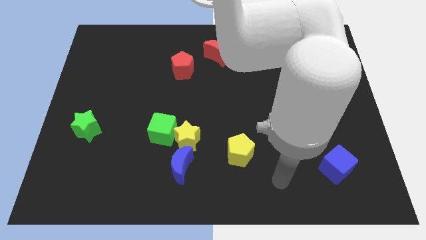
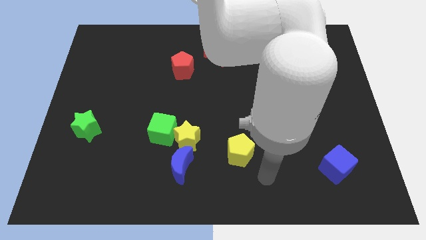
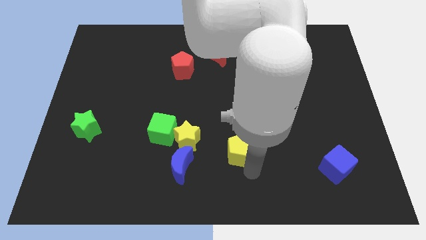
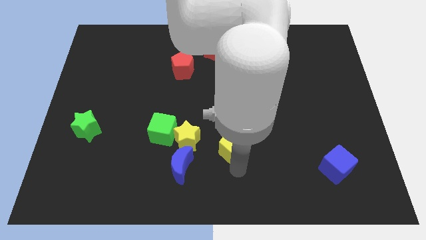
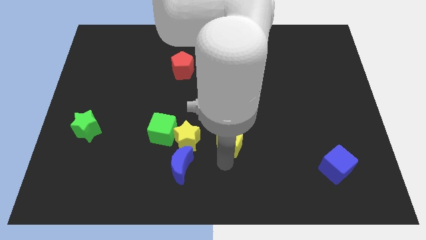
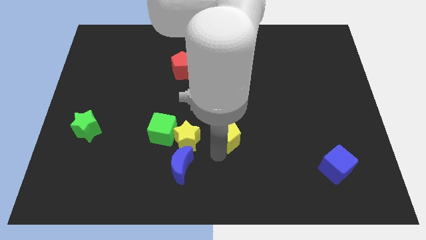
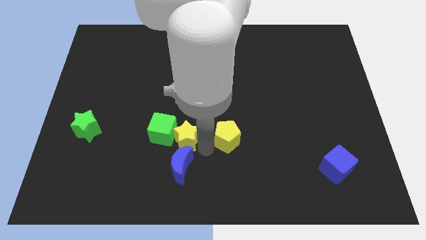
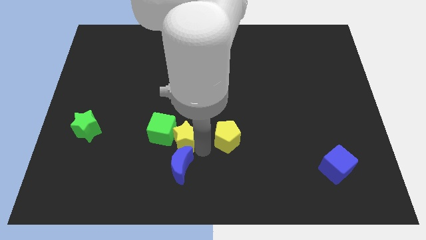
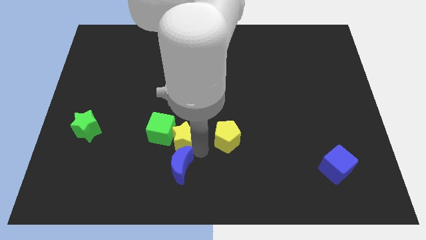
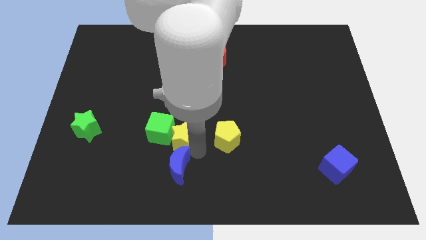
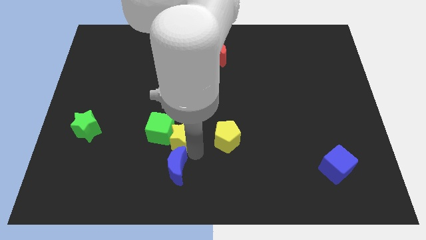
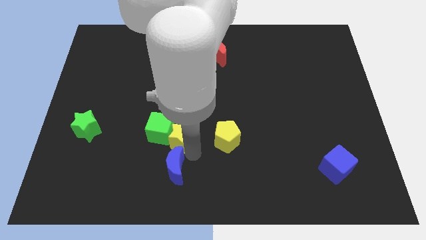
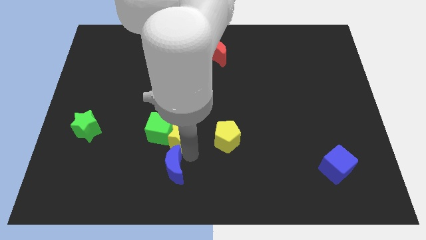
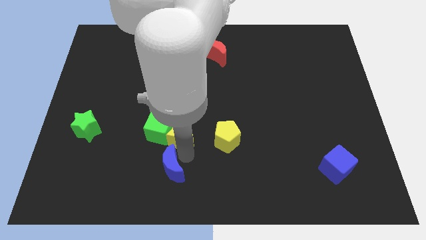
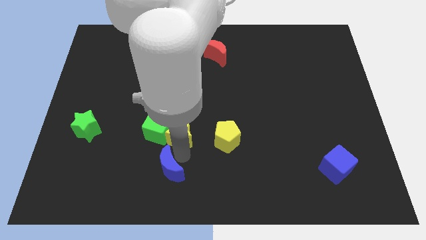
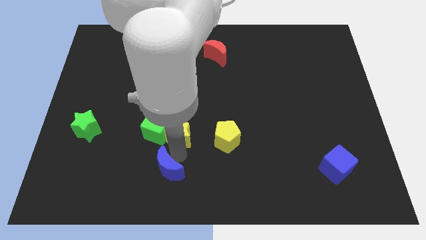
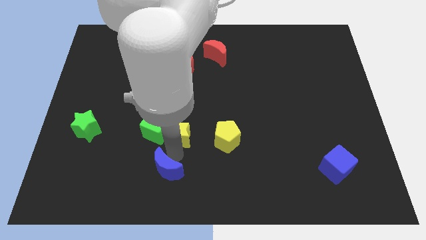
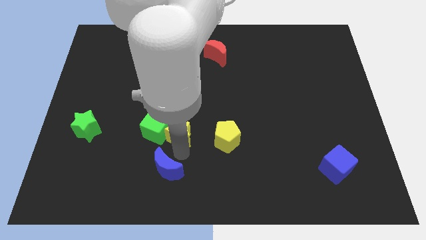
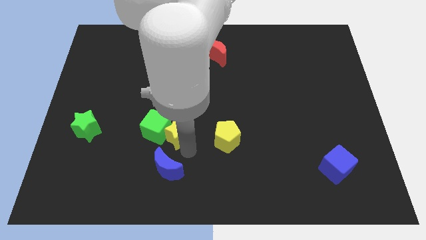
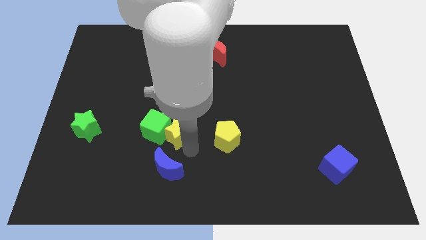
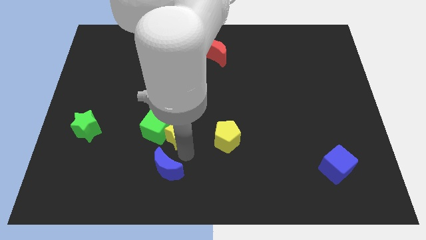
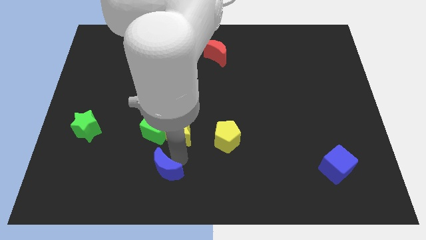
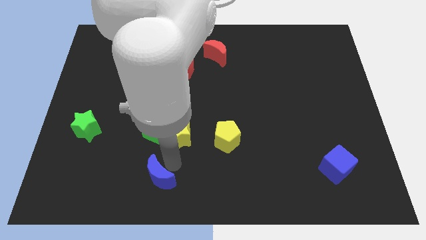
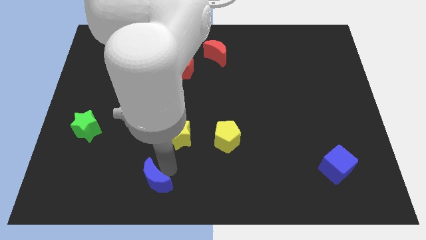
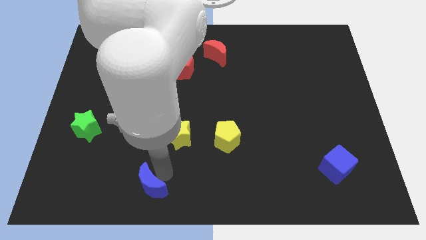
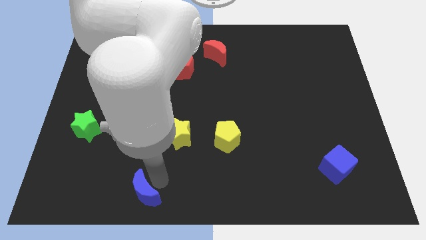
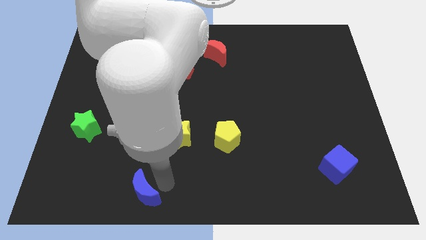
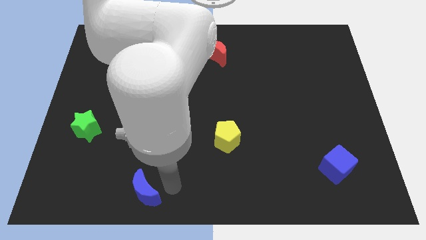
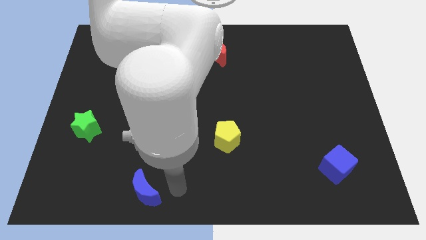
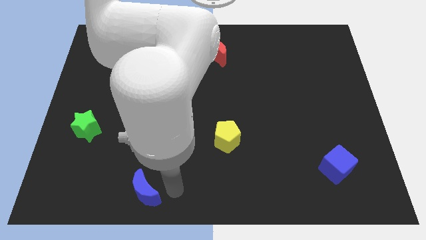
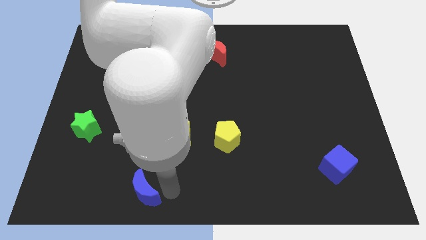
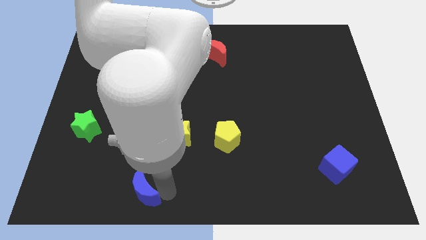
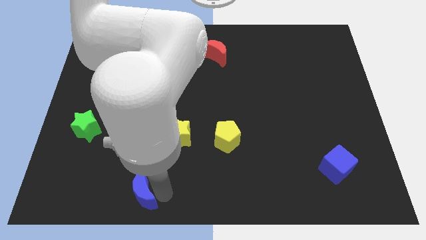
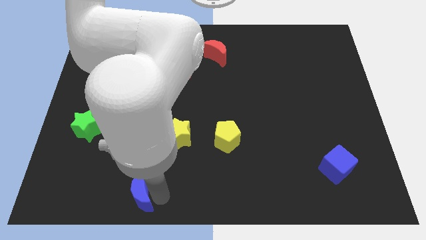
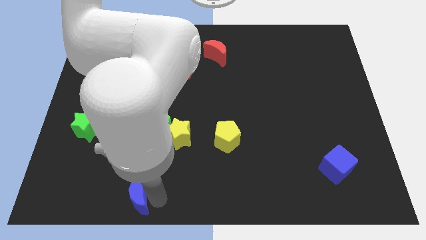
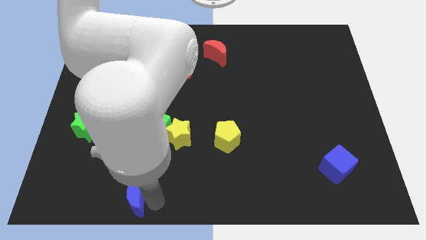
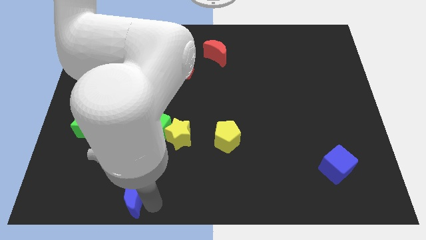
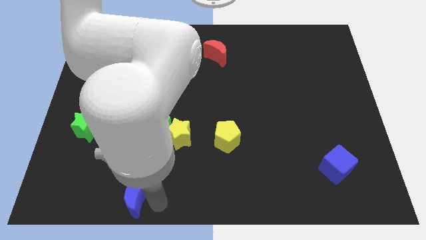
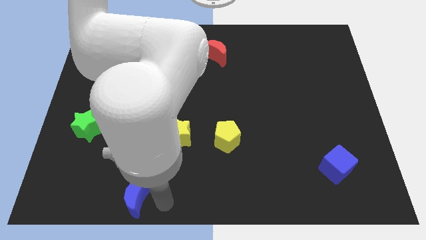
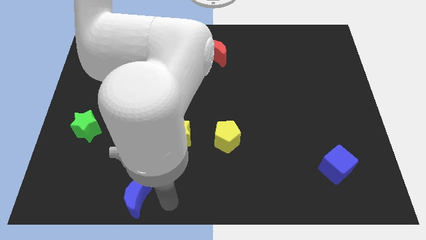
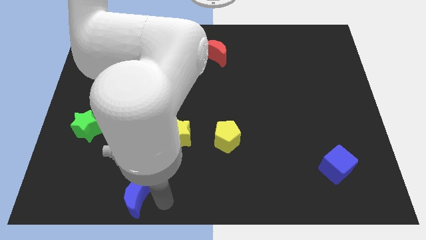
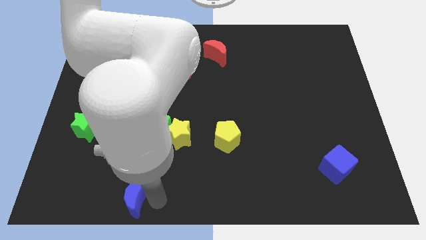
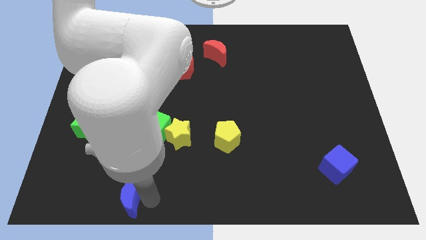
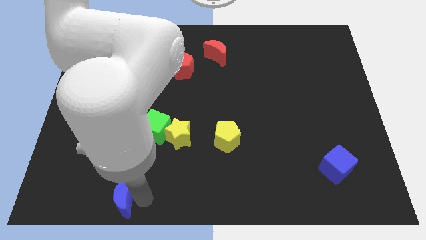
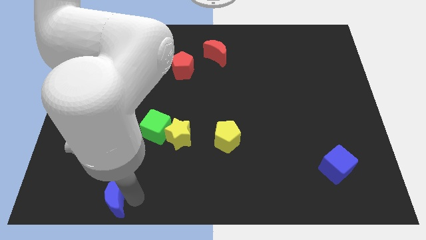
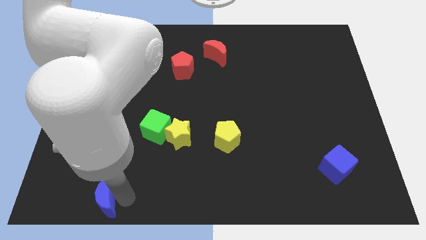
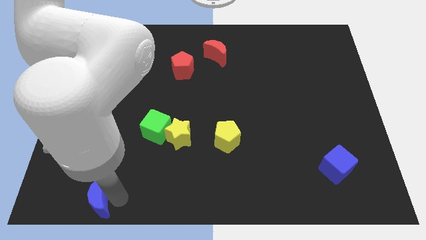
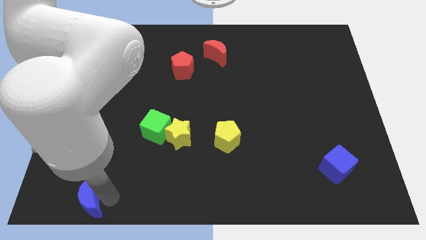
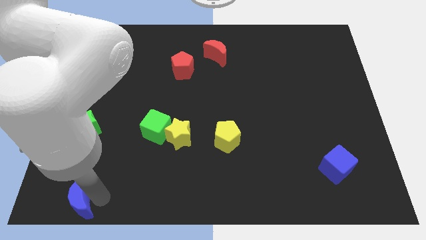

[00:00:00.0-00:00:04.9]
move the blue moon to the lower left corner

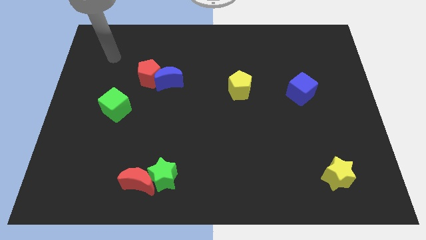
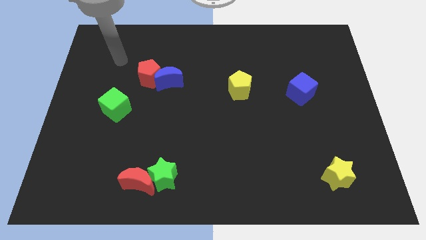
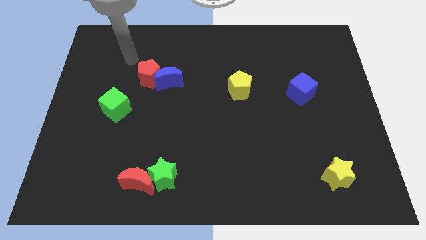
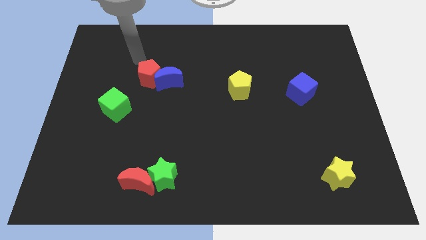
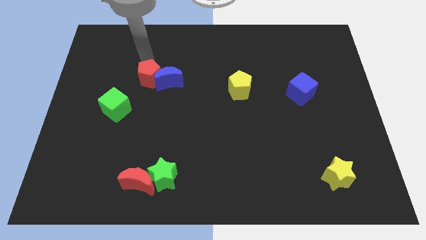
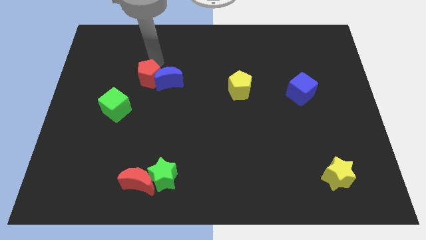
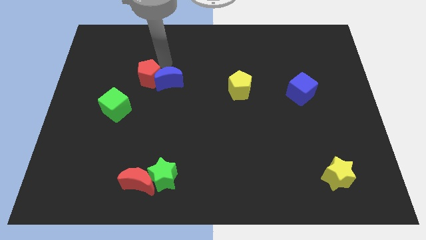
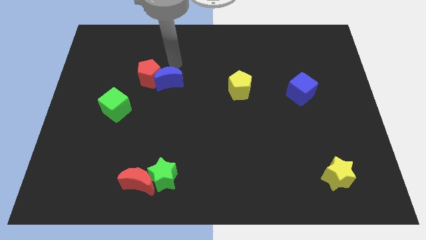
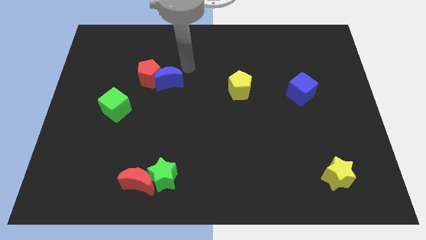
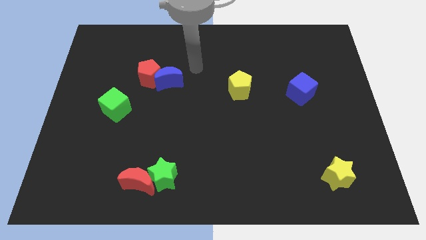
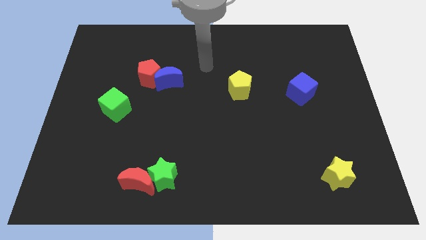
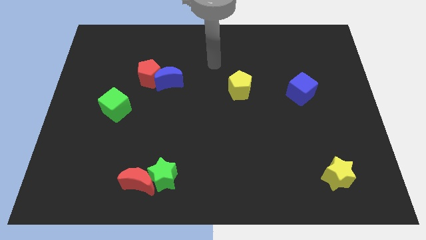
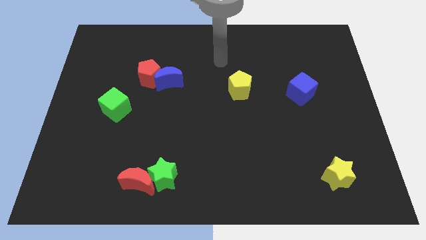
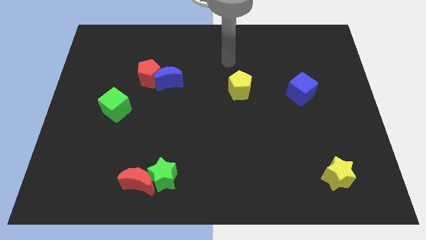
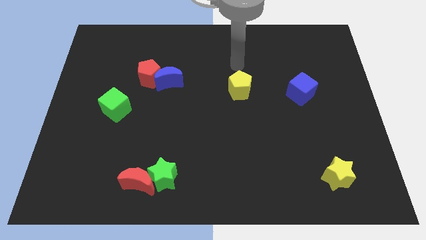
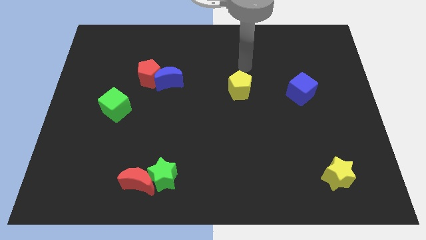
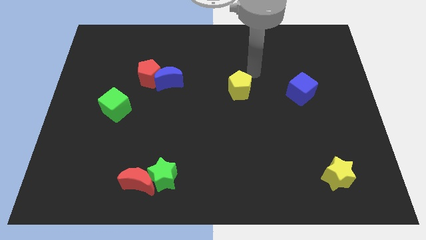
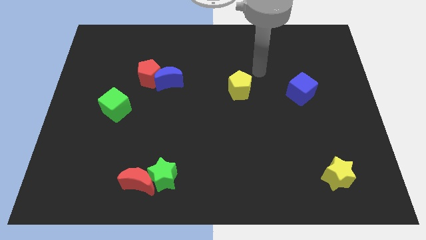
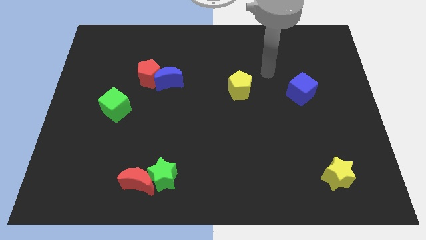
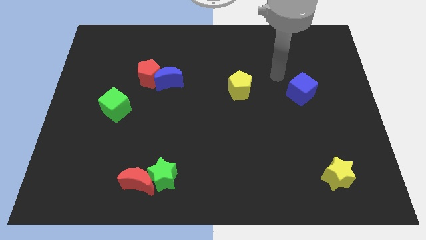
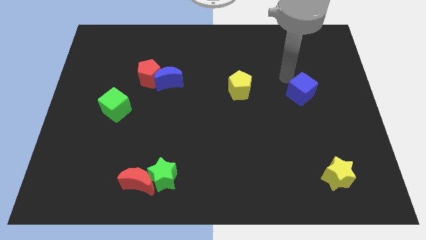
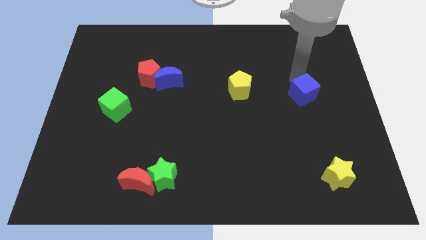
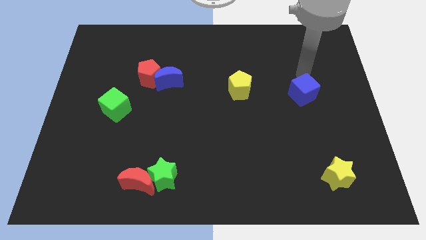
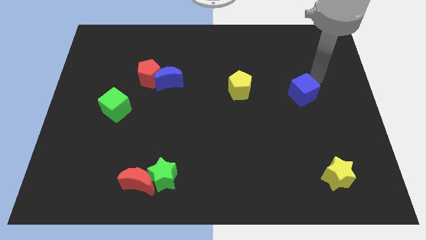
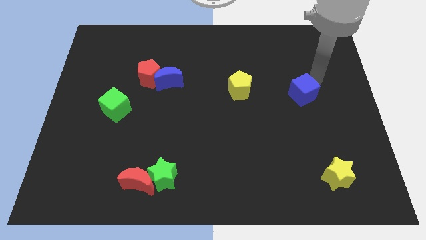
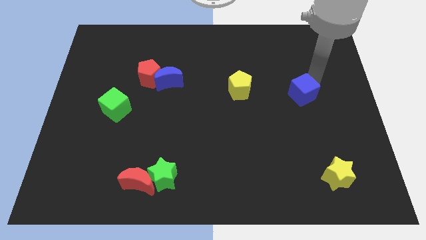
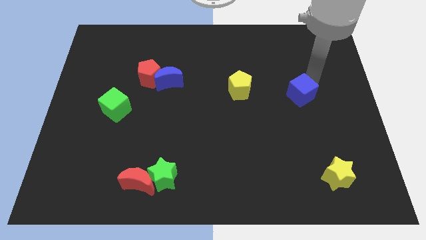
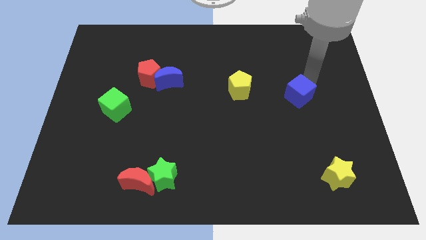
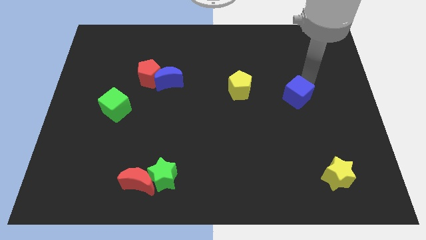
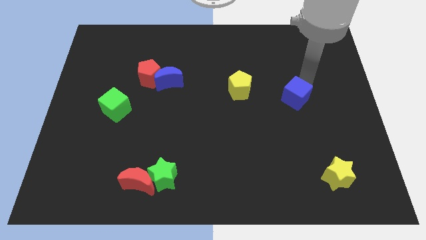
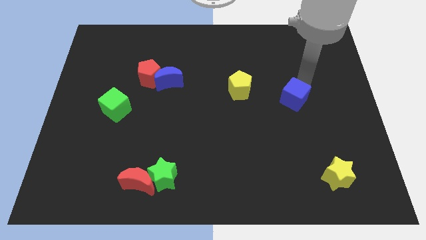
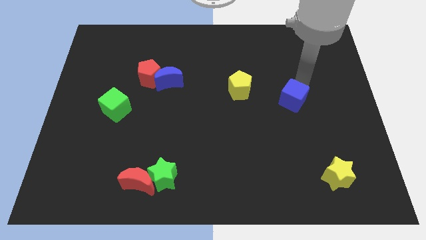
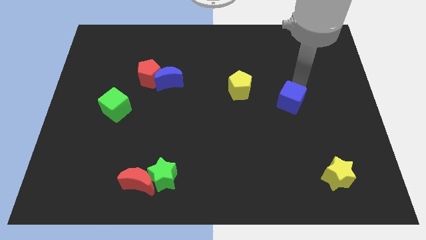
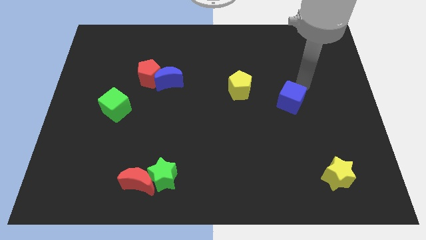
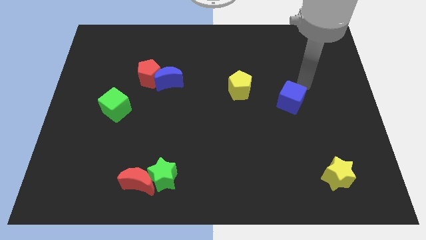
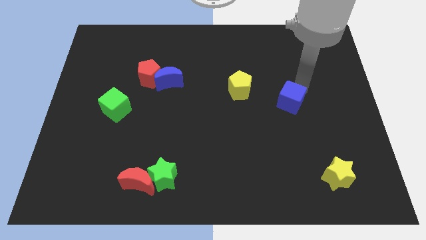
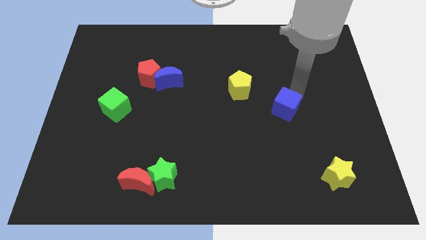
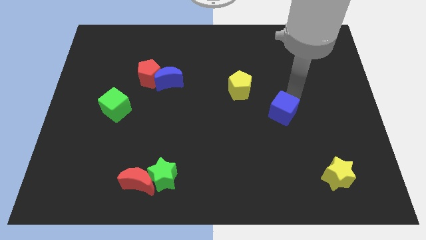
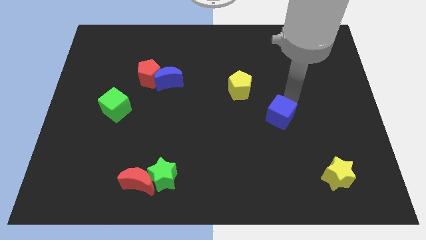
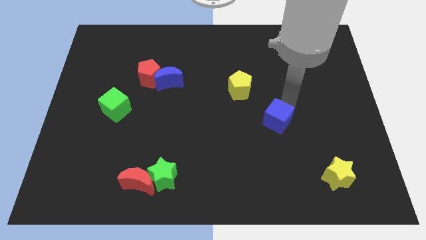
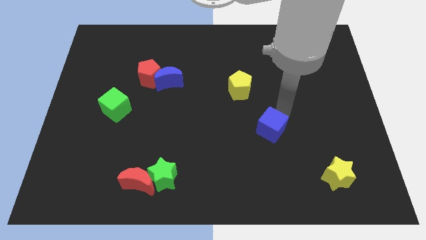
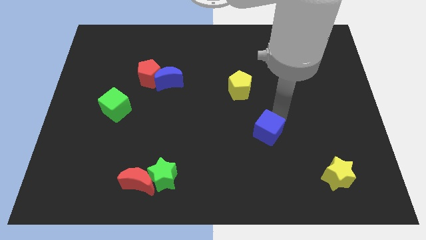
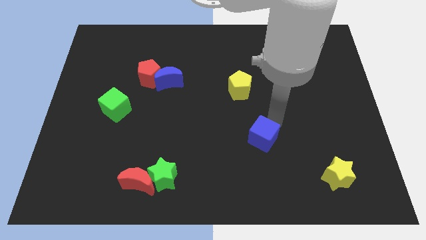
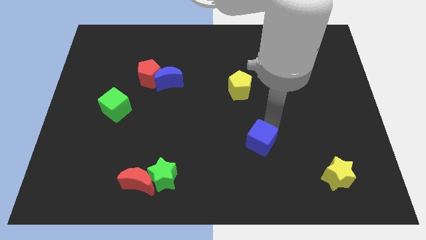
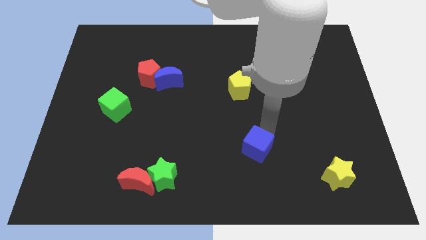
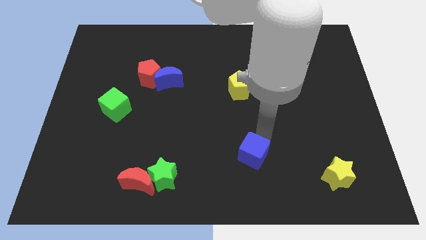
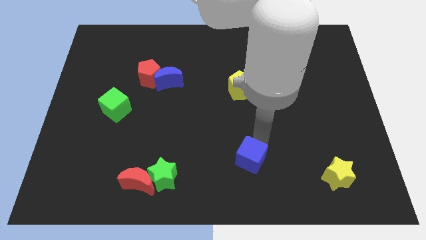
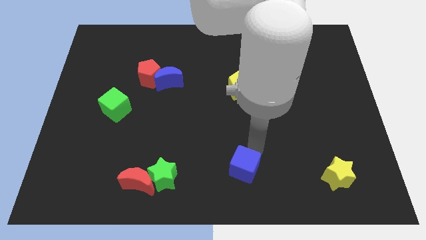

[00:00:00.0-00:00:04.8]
put the blue cube to the bottom
